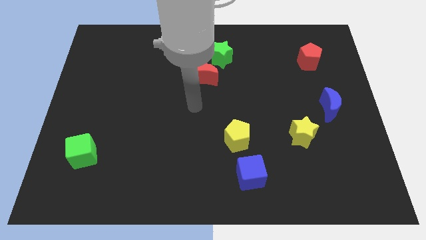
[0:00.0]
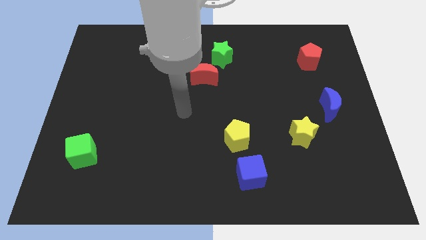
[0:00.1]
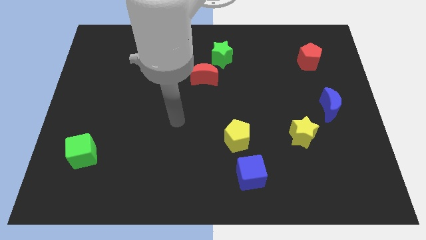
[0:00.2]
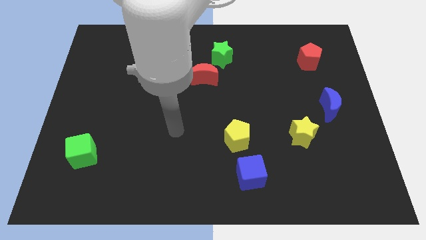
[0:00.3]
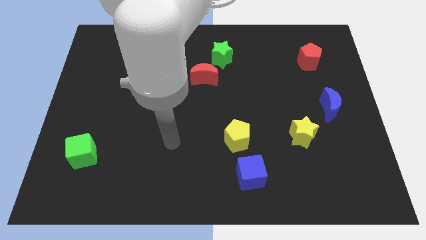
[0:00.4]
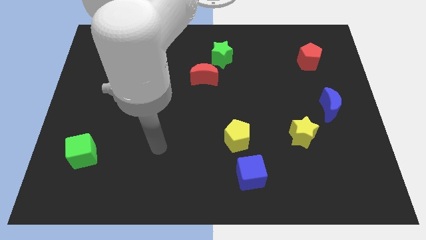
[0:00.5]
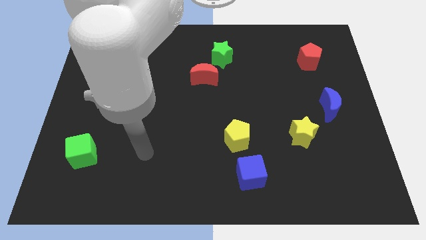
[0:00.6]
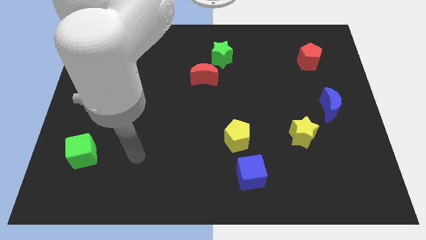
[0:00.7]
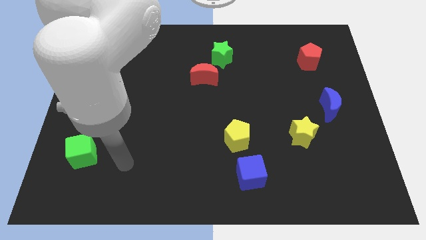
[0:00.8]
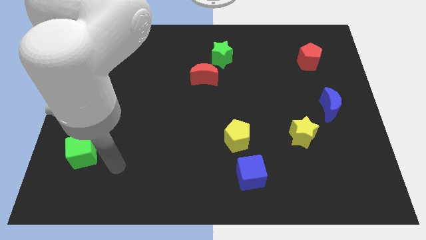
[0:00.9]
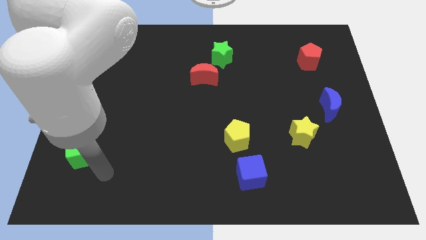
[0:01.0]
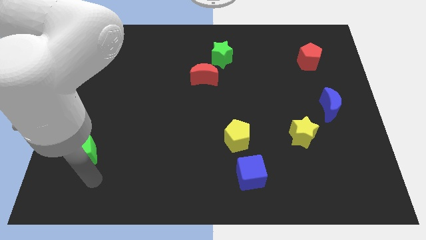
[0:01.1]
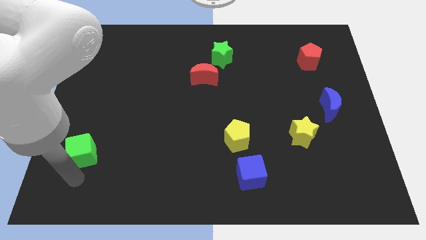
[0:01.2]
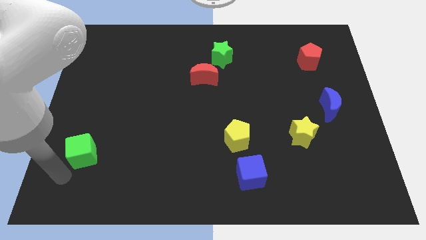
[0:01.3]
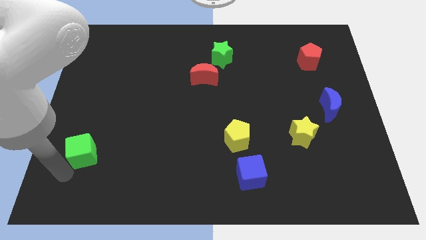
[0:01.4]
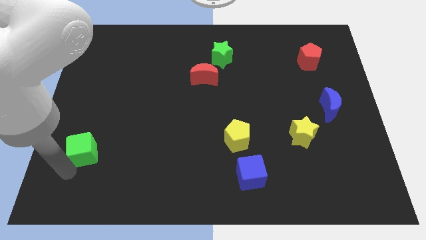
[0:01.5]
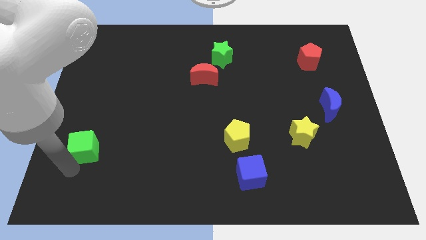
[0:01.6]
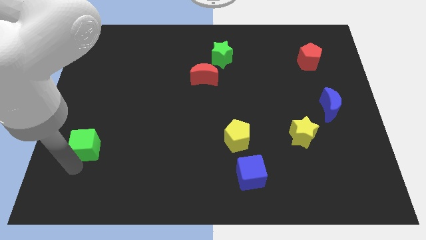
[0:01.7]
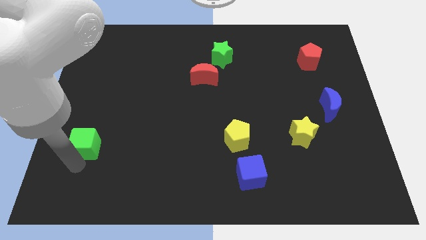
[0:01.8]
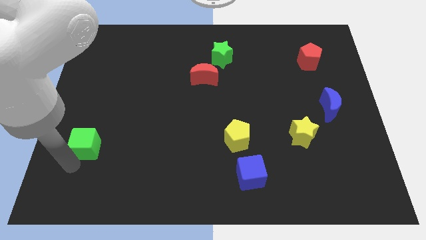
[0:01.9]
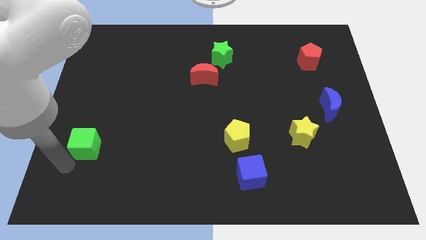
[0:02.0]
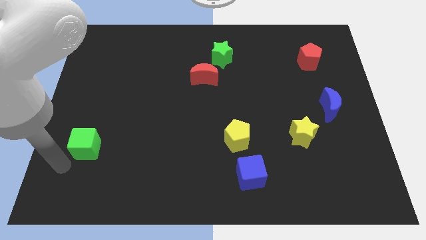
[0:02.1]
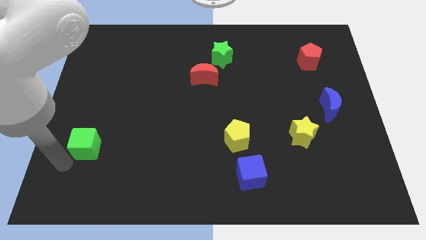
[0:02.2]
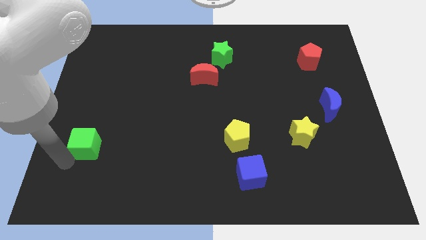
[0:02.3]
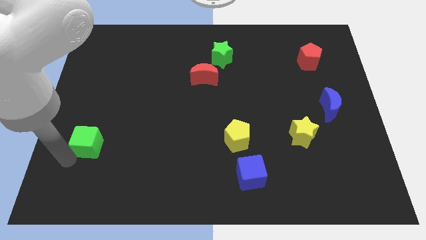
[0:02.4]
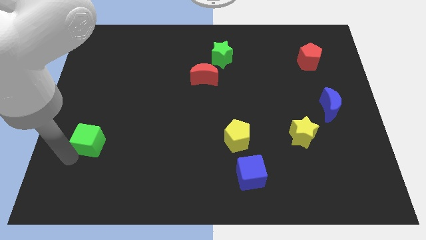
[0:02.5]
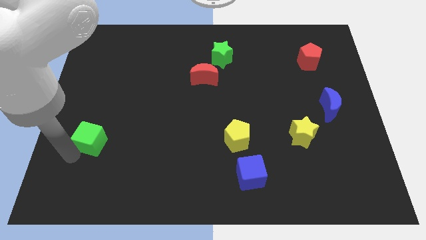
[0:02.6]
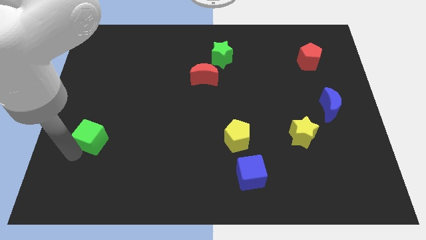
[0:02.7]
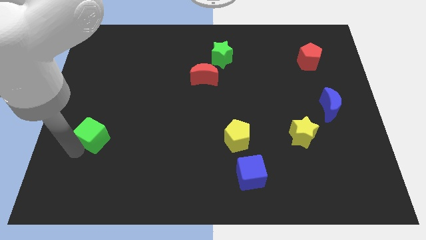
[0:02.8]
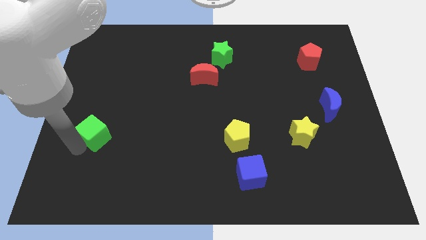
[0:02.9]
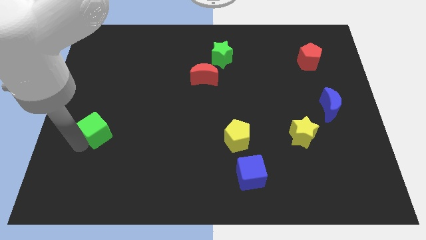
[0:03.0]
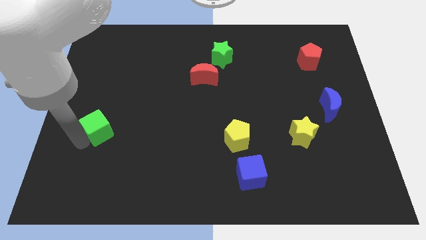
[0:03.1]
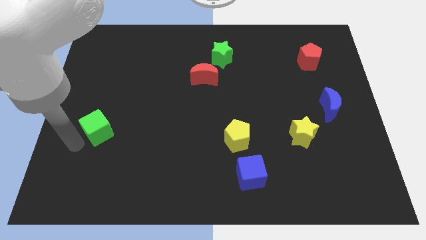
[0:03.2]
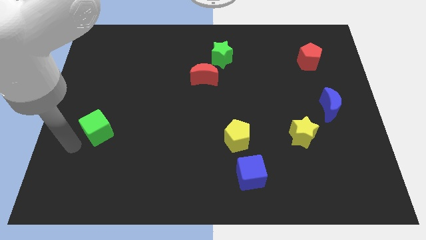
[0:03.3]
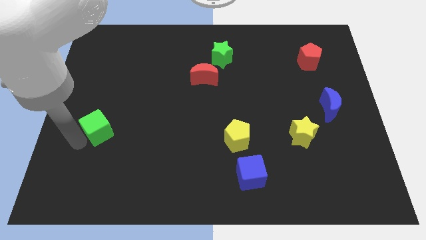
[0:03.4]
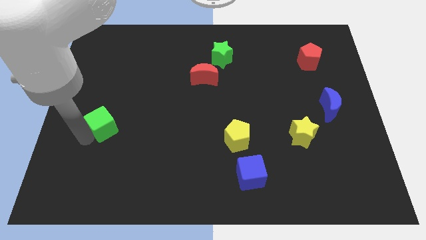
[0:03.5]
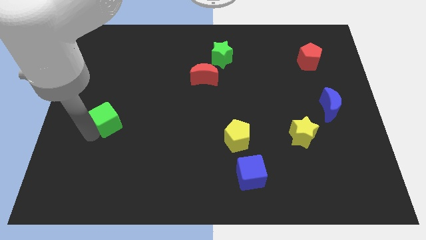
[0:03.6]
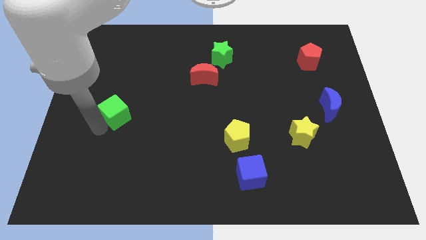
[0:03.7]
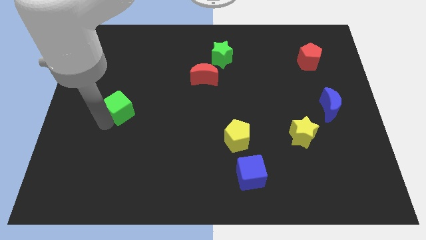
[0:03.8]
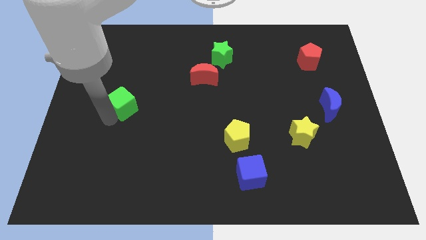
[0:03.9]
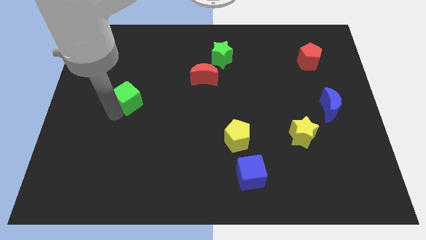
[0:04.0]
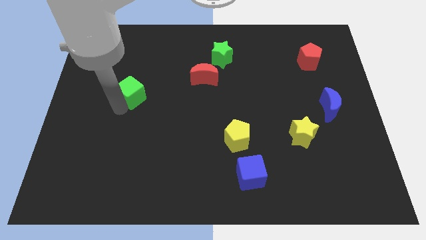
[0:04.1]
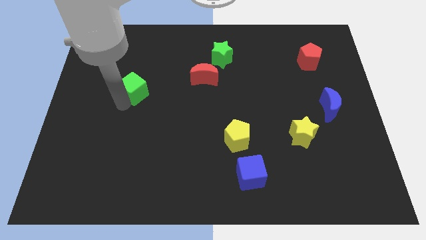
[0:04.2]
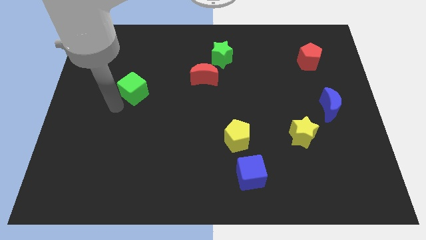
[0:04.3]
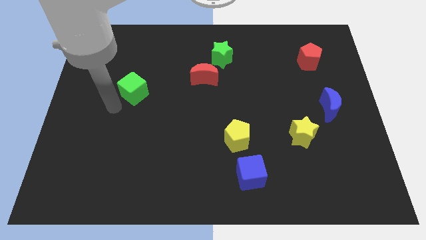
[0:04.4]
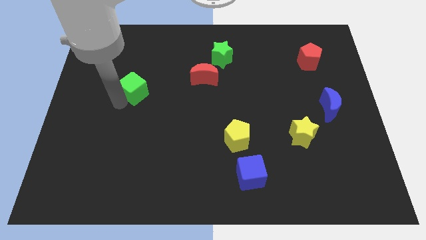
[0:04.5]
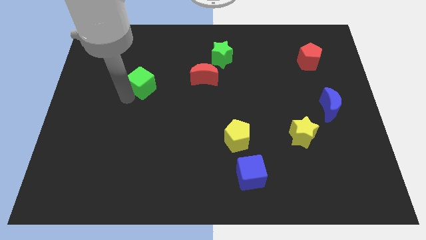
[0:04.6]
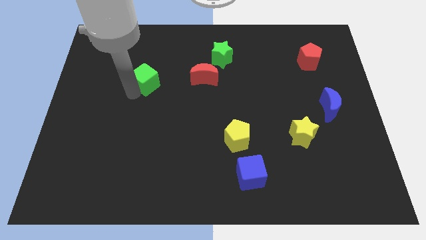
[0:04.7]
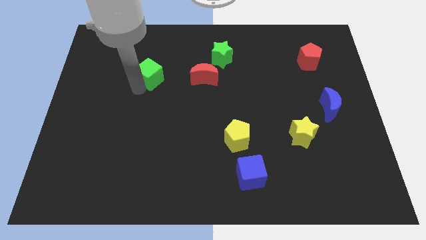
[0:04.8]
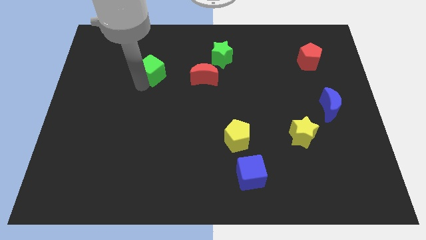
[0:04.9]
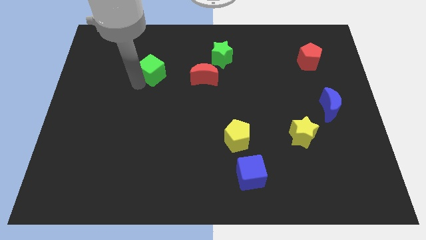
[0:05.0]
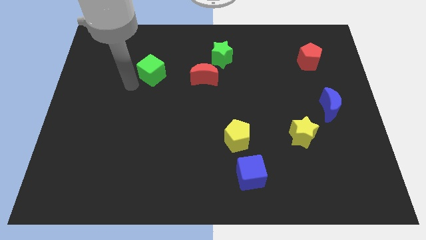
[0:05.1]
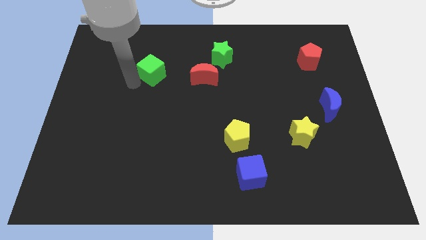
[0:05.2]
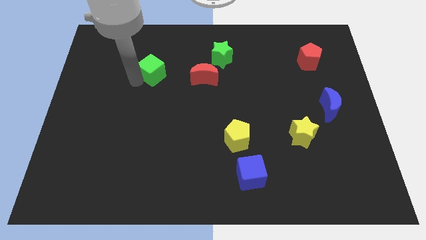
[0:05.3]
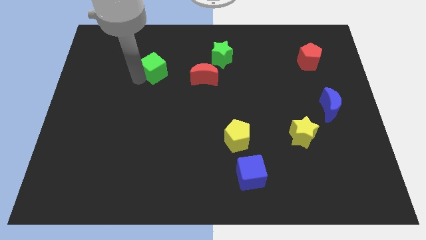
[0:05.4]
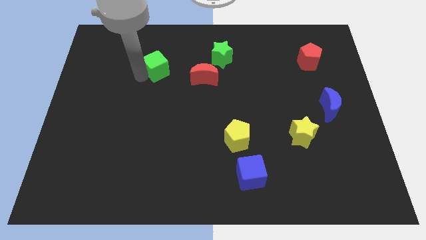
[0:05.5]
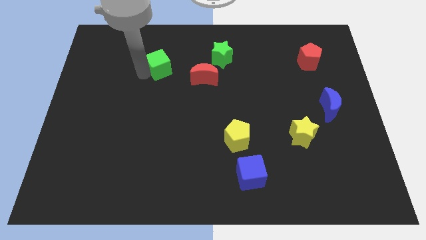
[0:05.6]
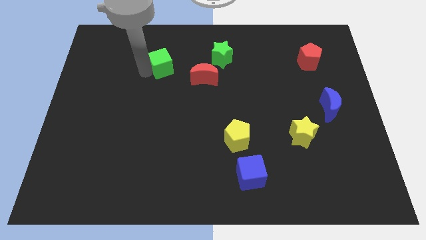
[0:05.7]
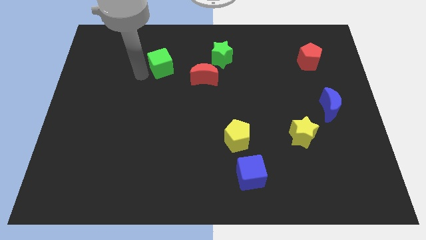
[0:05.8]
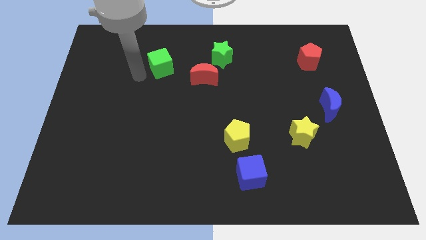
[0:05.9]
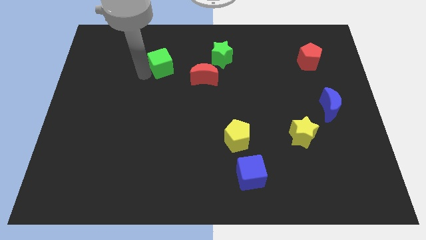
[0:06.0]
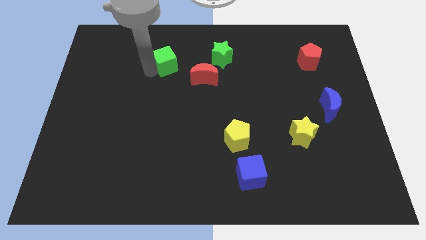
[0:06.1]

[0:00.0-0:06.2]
push the green cube just left of the green star

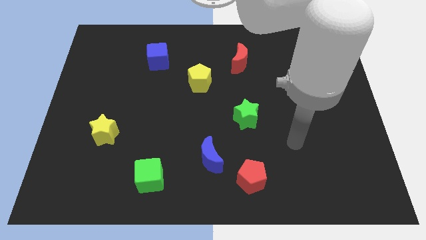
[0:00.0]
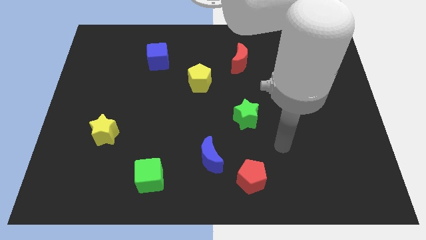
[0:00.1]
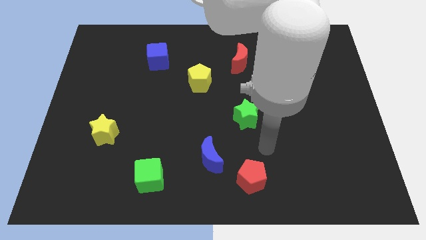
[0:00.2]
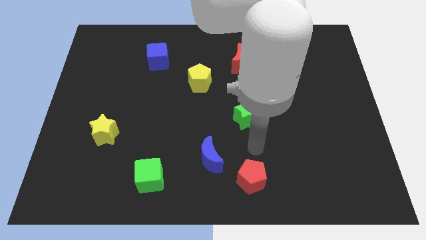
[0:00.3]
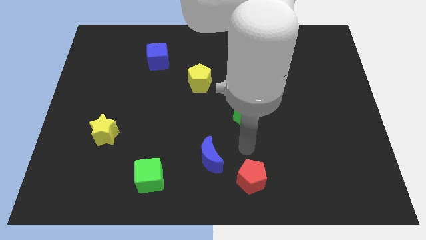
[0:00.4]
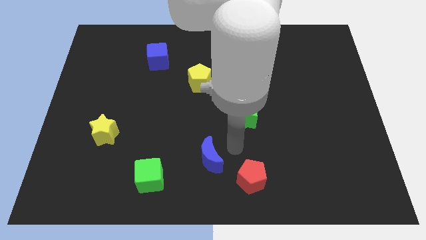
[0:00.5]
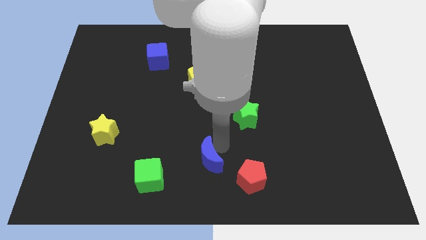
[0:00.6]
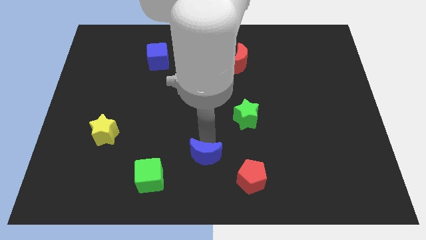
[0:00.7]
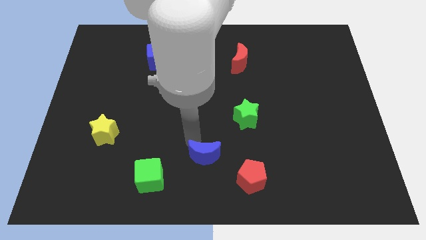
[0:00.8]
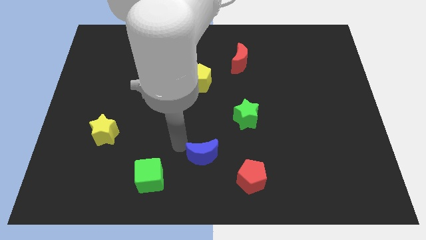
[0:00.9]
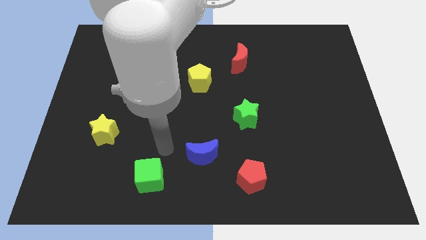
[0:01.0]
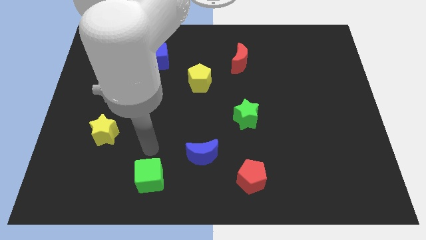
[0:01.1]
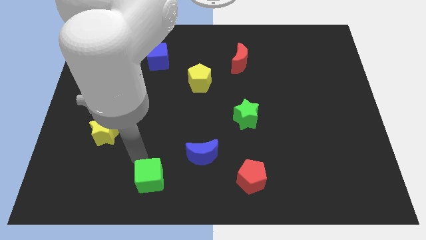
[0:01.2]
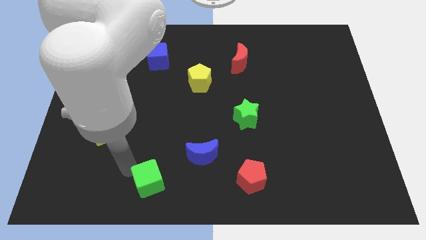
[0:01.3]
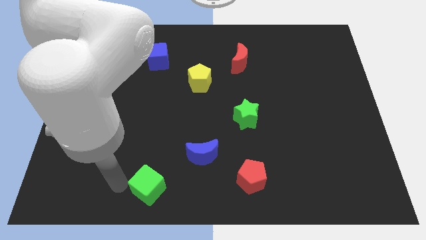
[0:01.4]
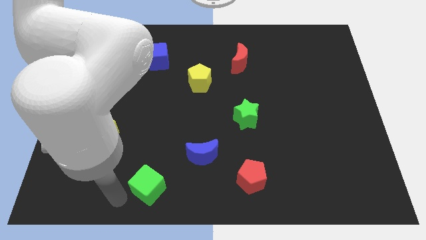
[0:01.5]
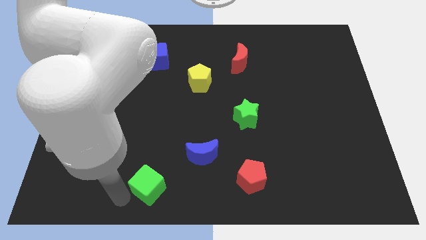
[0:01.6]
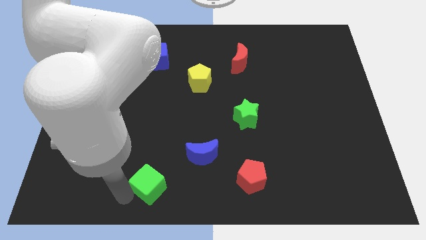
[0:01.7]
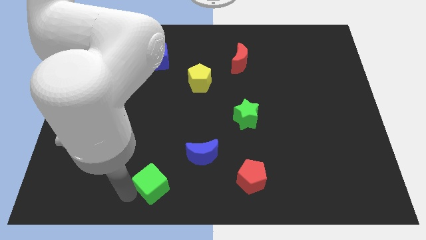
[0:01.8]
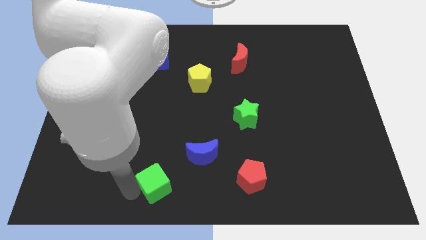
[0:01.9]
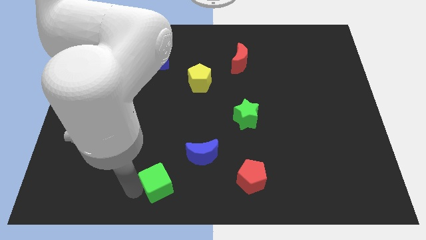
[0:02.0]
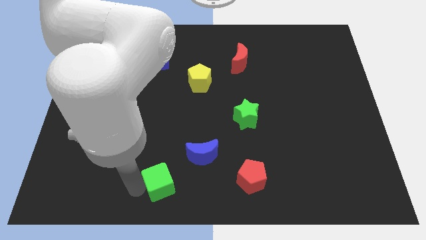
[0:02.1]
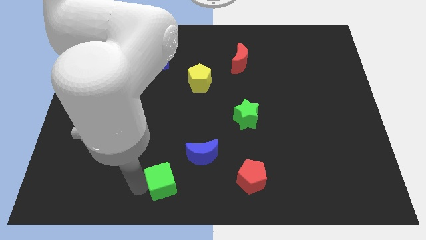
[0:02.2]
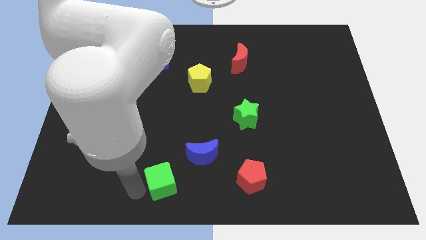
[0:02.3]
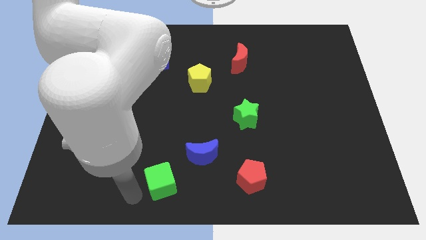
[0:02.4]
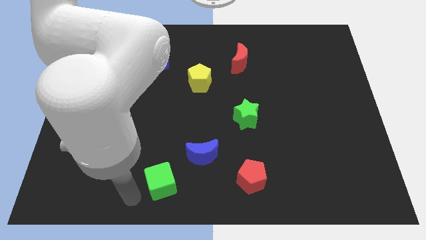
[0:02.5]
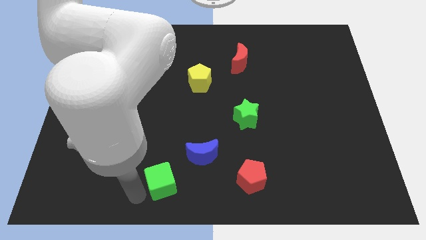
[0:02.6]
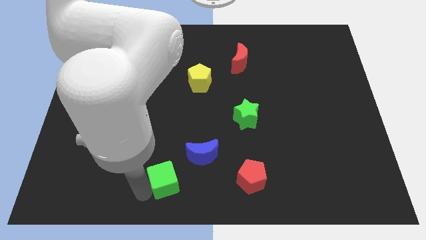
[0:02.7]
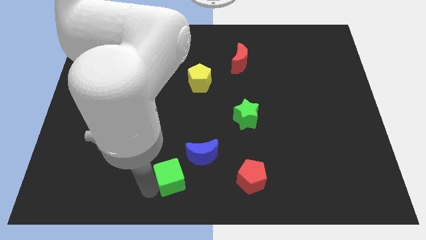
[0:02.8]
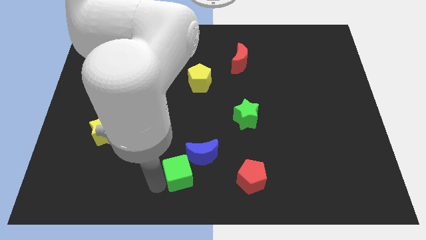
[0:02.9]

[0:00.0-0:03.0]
push the green cube to the left of the red pentagon
